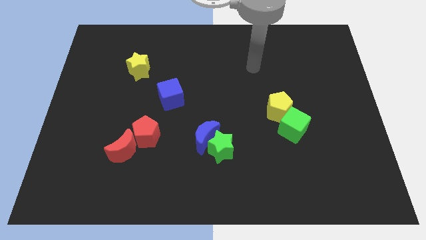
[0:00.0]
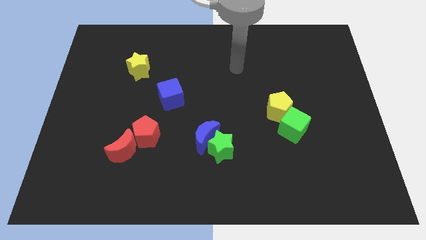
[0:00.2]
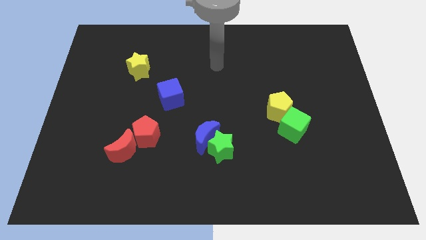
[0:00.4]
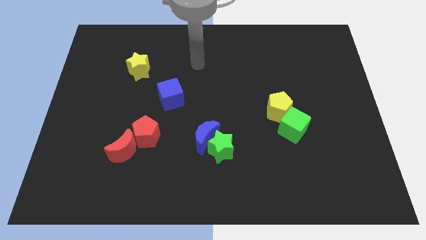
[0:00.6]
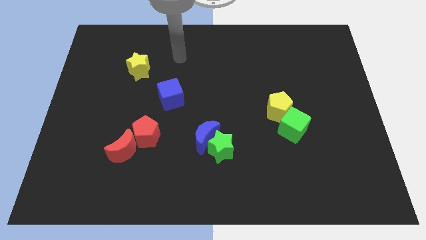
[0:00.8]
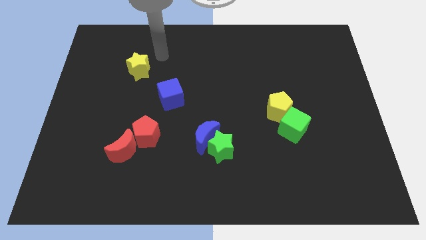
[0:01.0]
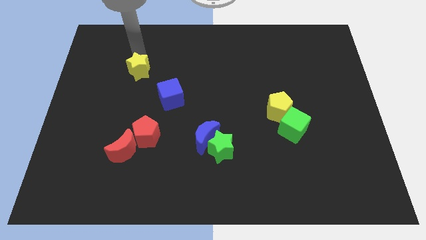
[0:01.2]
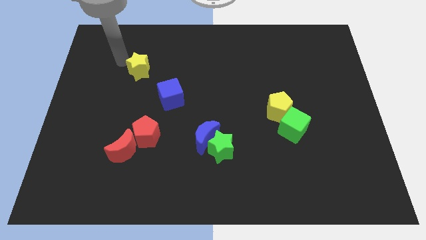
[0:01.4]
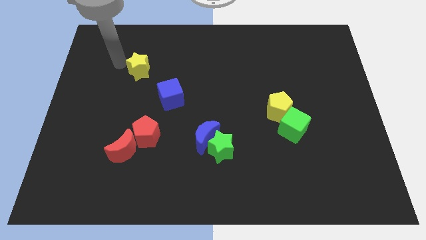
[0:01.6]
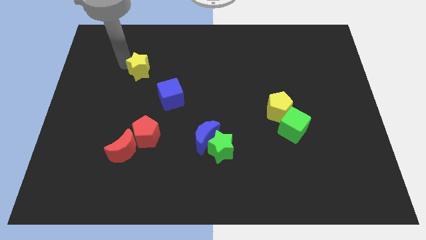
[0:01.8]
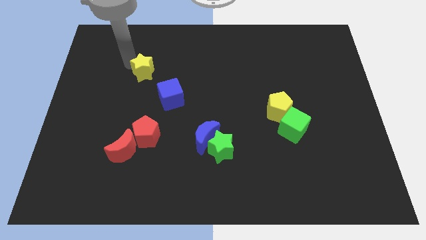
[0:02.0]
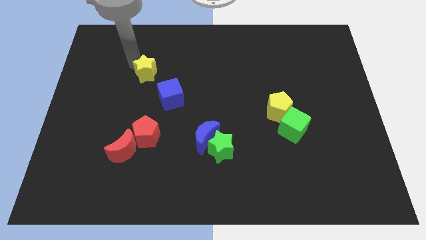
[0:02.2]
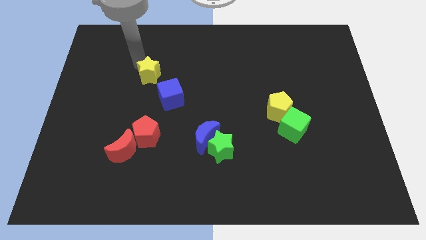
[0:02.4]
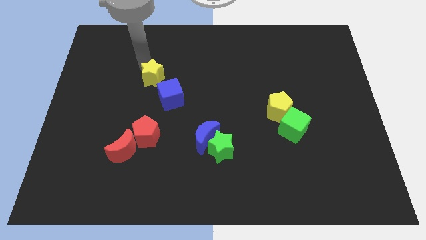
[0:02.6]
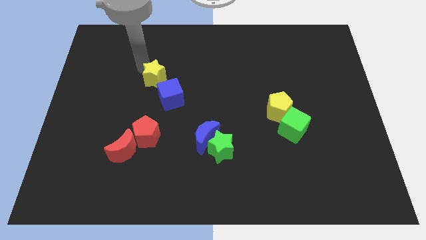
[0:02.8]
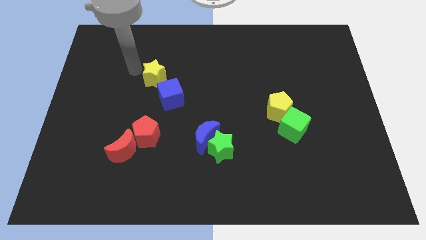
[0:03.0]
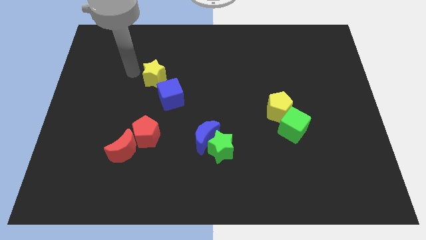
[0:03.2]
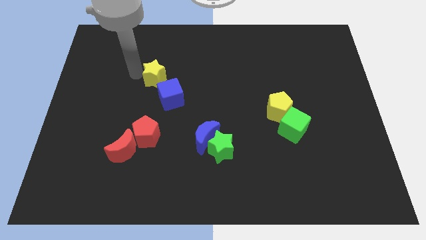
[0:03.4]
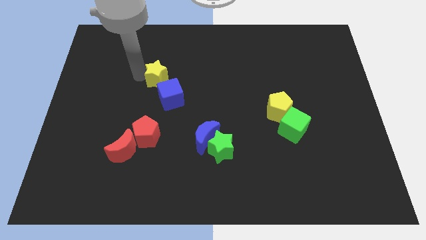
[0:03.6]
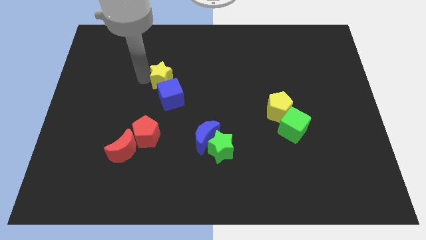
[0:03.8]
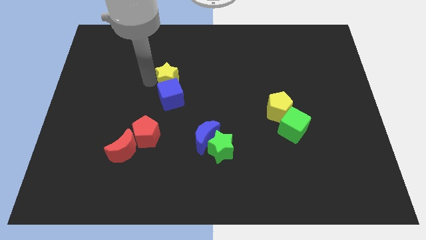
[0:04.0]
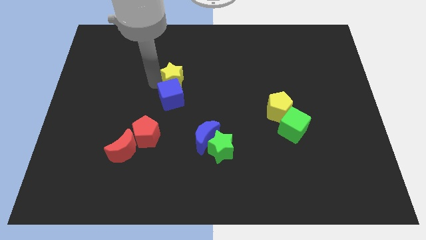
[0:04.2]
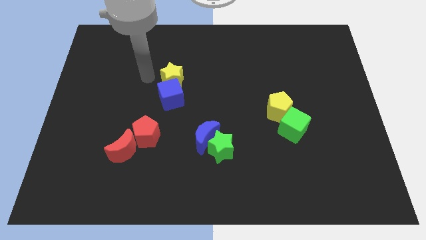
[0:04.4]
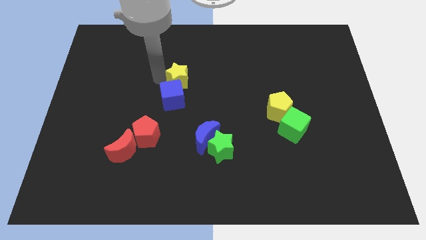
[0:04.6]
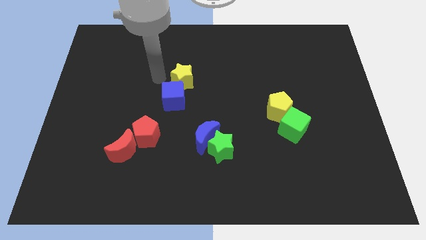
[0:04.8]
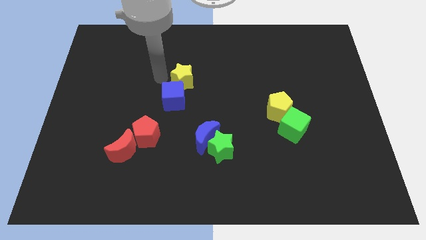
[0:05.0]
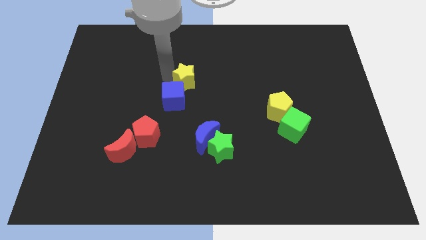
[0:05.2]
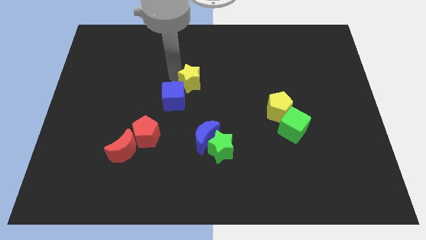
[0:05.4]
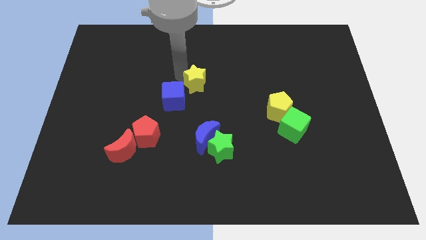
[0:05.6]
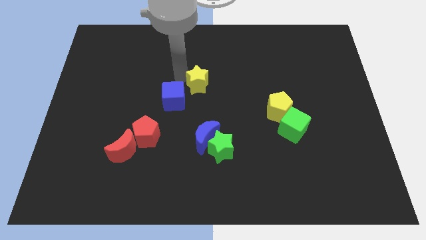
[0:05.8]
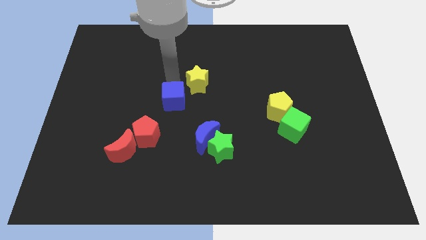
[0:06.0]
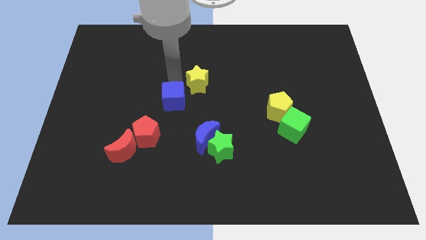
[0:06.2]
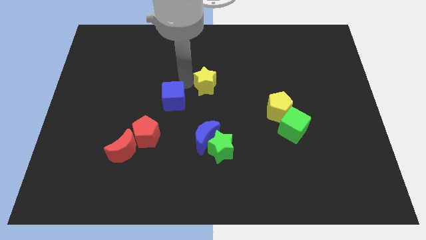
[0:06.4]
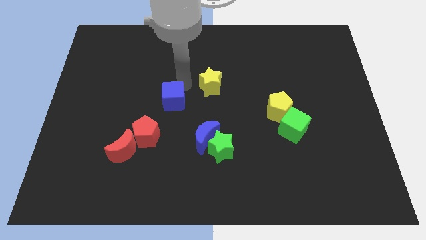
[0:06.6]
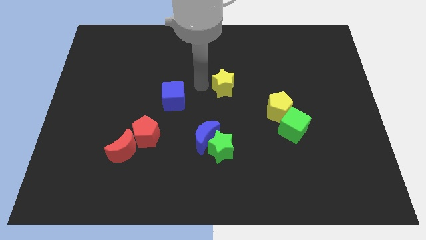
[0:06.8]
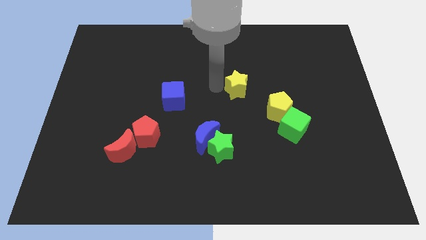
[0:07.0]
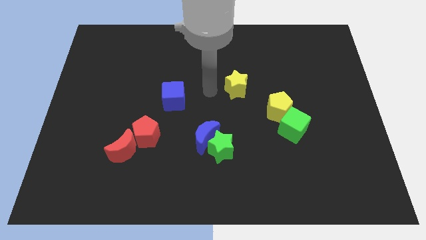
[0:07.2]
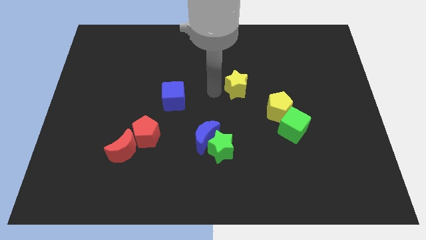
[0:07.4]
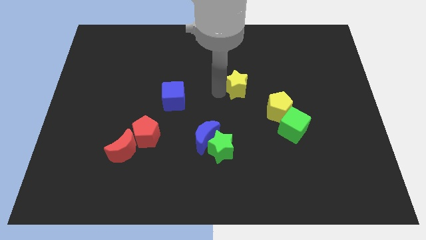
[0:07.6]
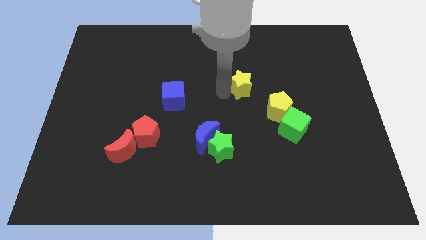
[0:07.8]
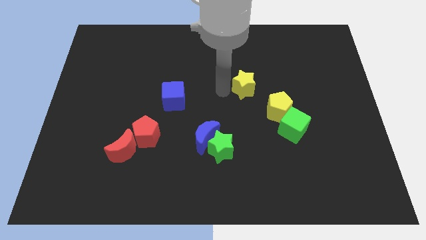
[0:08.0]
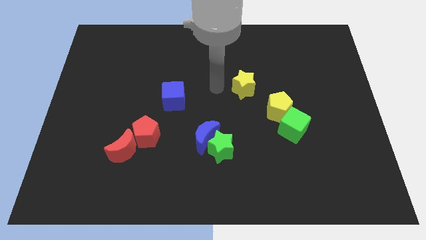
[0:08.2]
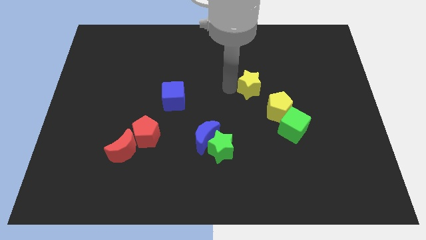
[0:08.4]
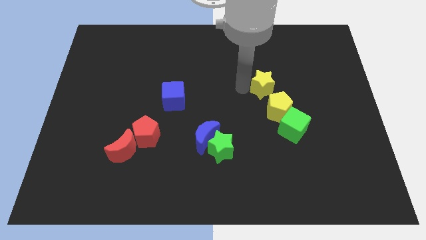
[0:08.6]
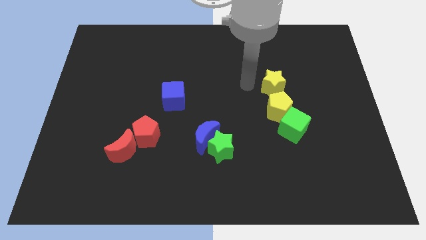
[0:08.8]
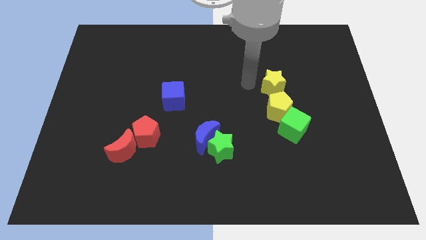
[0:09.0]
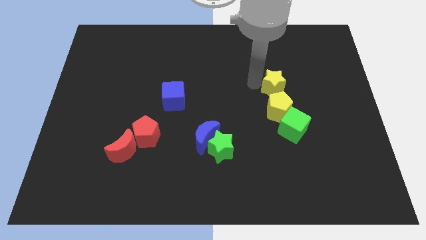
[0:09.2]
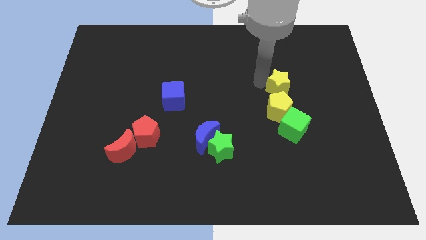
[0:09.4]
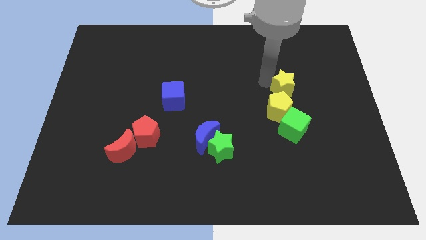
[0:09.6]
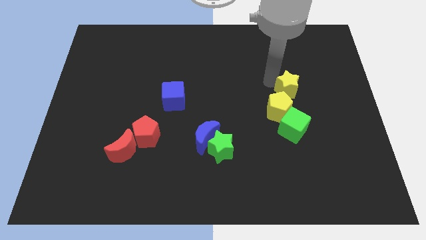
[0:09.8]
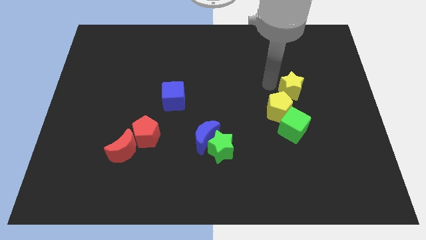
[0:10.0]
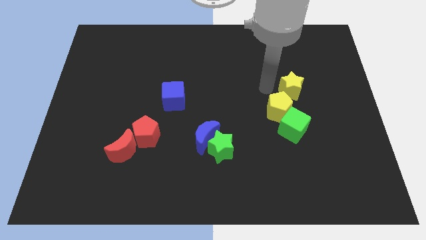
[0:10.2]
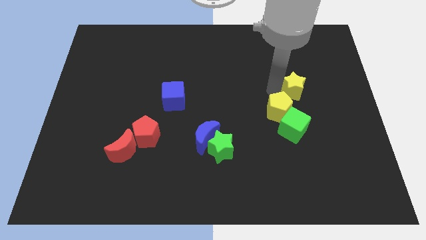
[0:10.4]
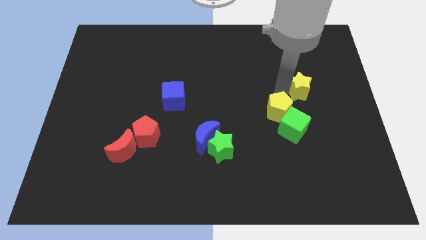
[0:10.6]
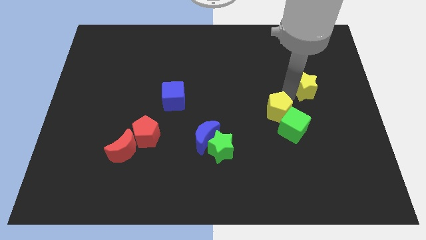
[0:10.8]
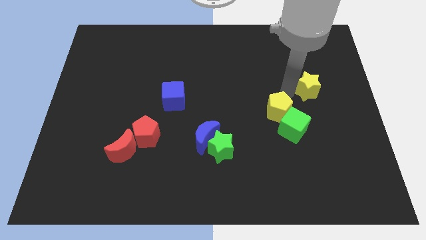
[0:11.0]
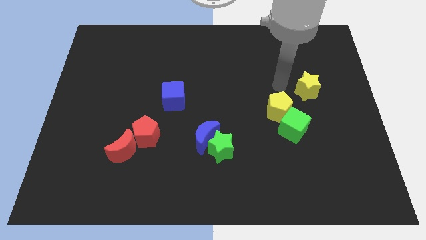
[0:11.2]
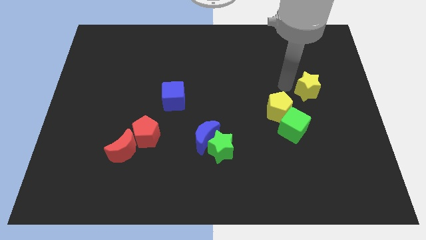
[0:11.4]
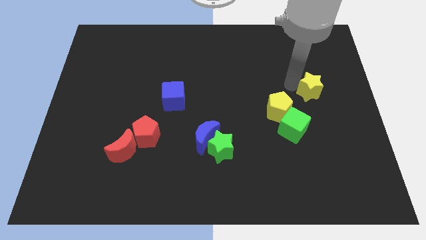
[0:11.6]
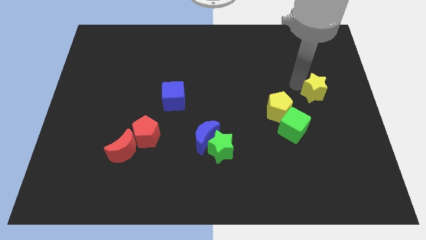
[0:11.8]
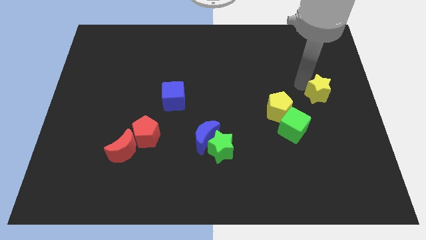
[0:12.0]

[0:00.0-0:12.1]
push the yellow star to the right side of the board

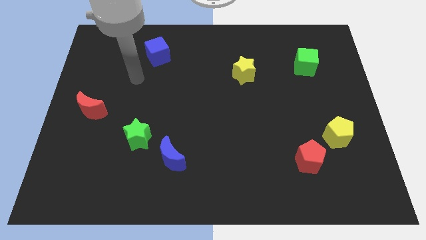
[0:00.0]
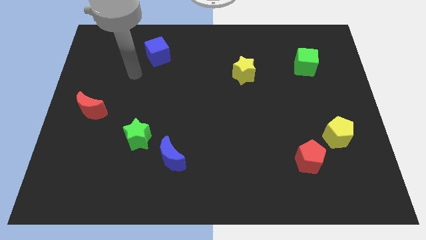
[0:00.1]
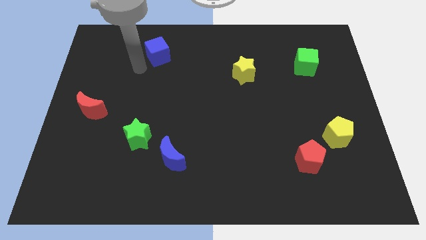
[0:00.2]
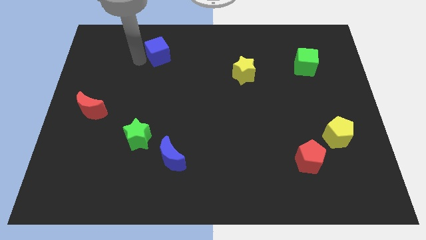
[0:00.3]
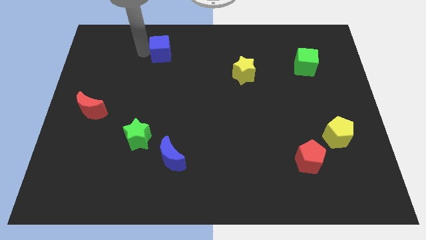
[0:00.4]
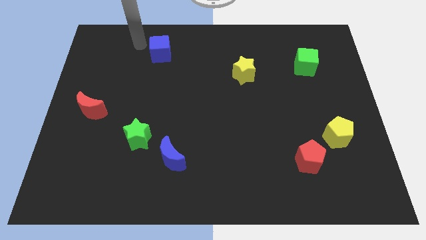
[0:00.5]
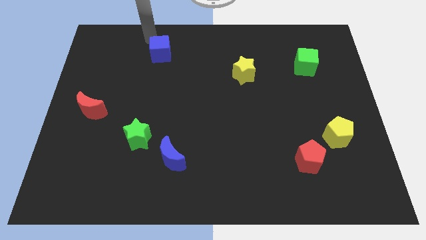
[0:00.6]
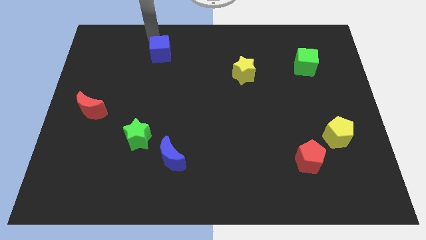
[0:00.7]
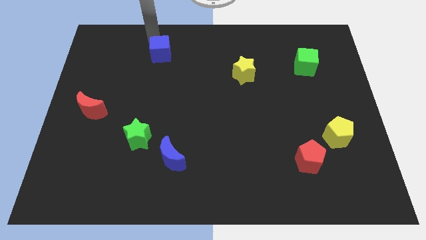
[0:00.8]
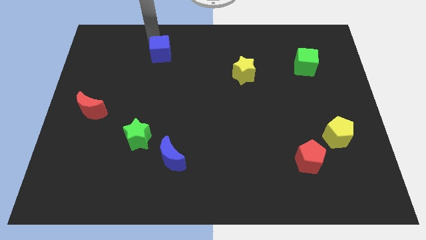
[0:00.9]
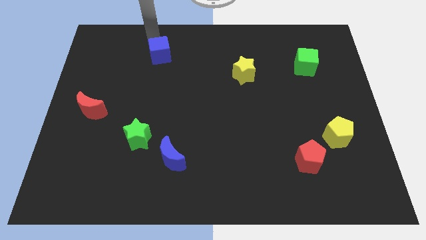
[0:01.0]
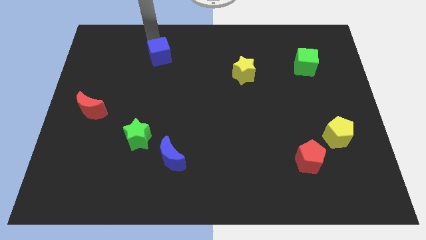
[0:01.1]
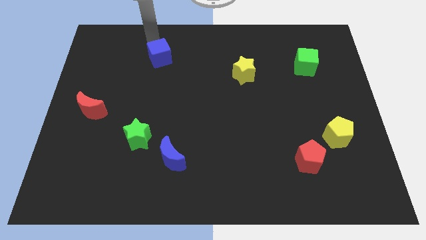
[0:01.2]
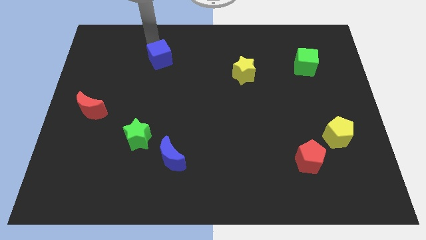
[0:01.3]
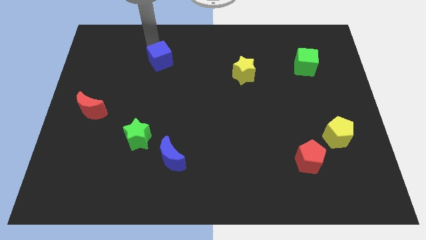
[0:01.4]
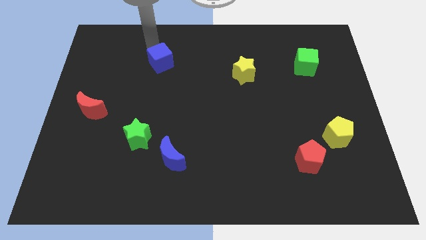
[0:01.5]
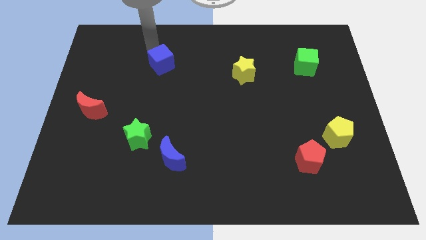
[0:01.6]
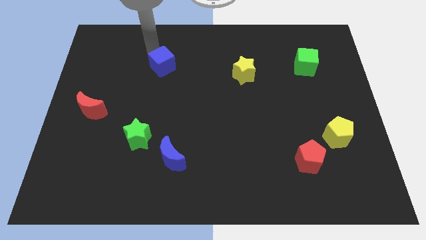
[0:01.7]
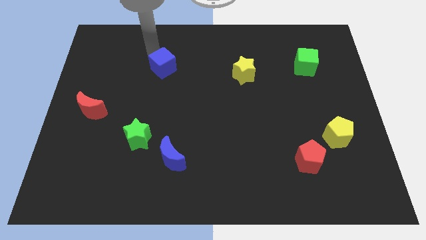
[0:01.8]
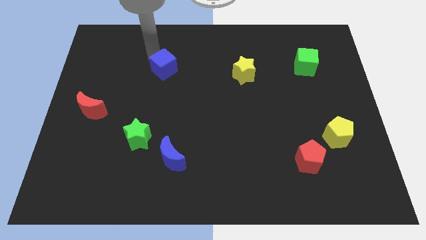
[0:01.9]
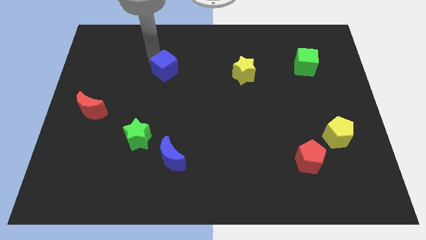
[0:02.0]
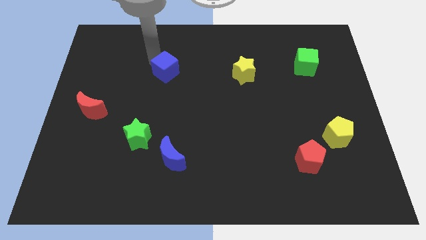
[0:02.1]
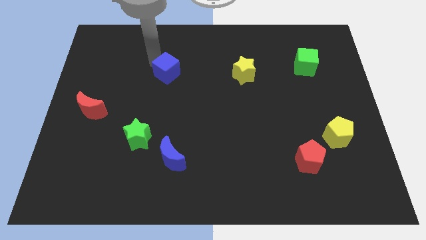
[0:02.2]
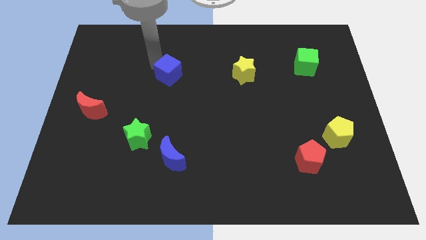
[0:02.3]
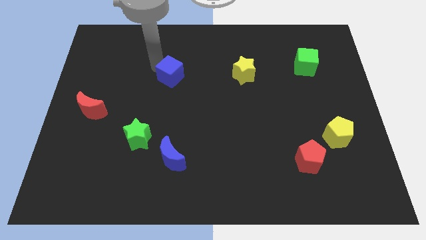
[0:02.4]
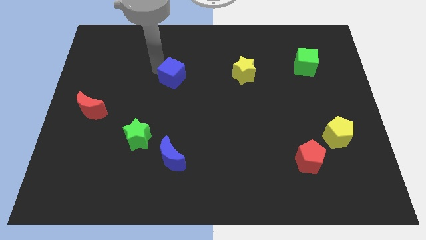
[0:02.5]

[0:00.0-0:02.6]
push the blue cube to the center of the board
